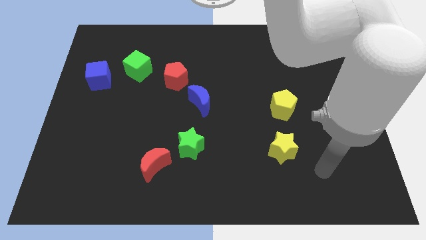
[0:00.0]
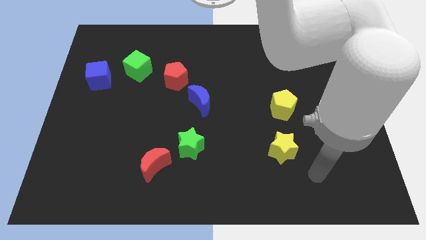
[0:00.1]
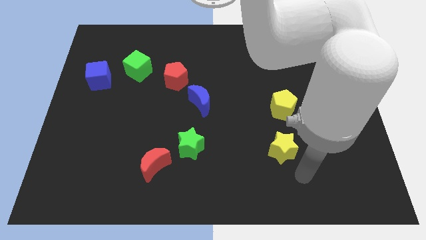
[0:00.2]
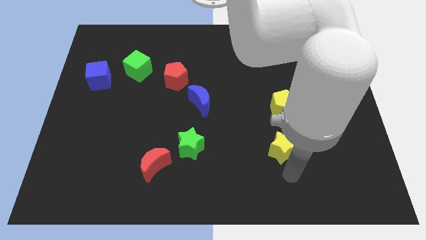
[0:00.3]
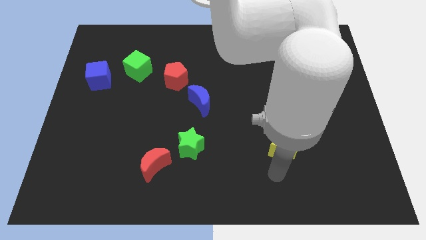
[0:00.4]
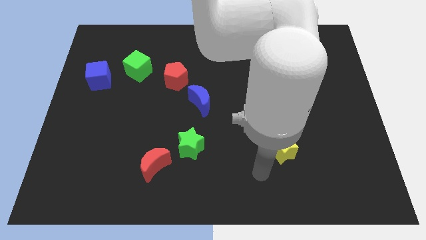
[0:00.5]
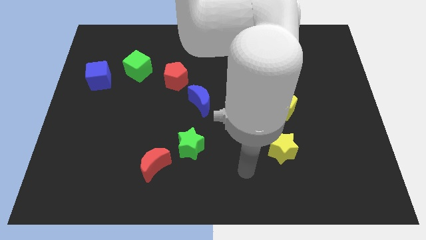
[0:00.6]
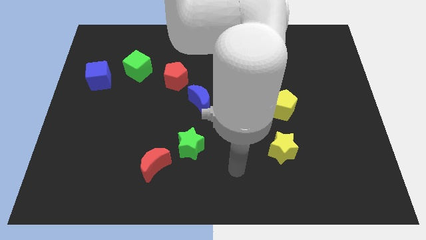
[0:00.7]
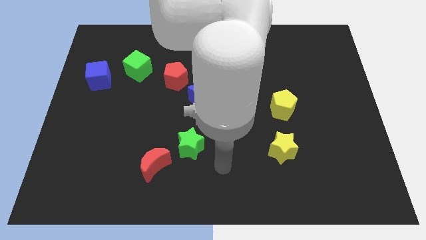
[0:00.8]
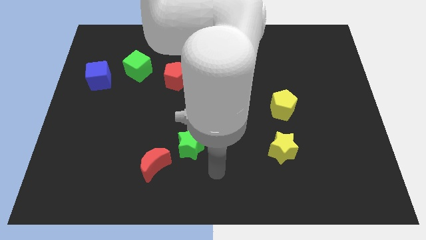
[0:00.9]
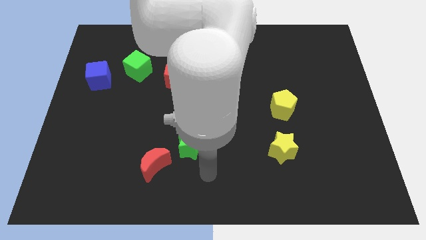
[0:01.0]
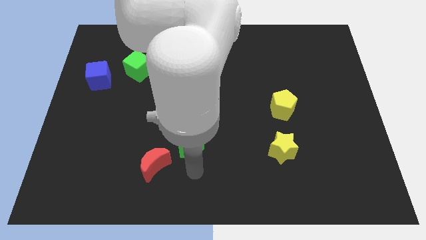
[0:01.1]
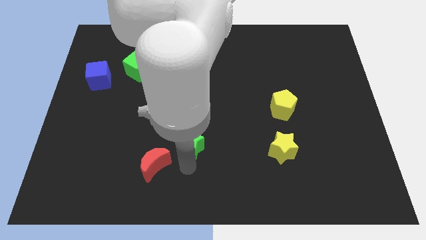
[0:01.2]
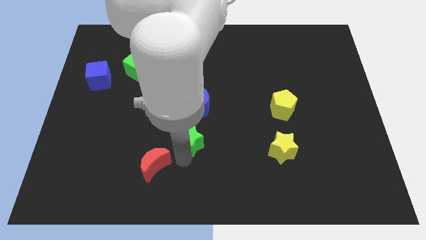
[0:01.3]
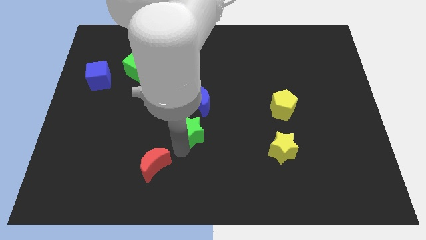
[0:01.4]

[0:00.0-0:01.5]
move the red moon away from the green star

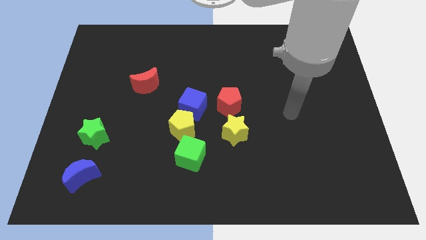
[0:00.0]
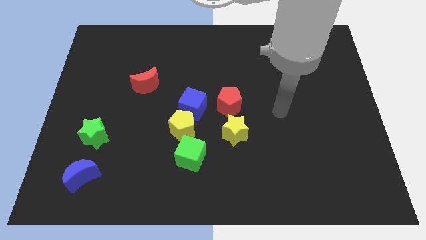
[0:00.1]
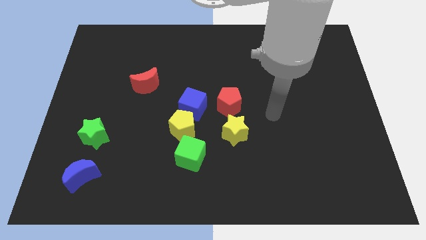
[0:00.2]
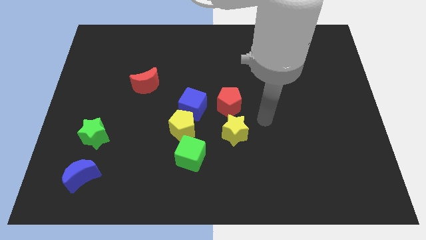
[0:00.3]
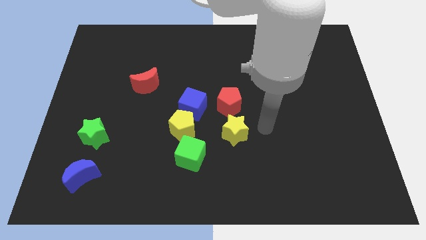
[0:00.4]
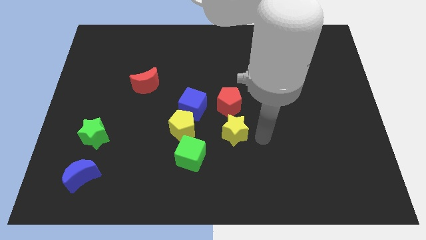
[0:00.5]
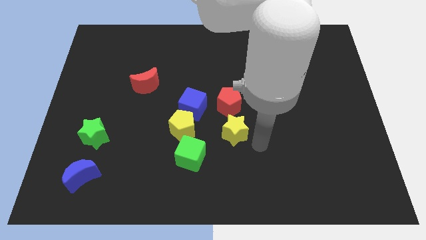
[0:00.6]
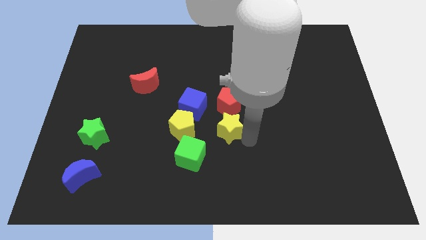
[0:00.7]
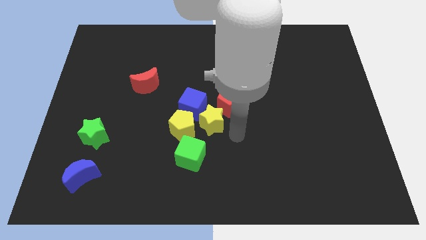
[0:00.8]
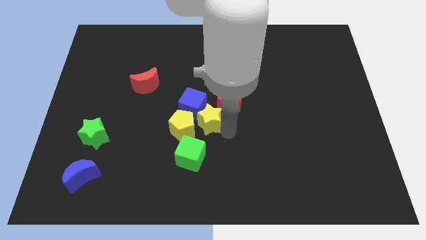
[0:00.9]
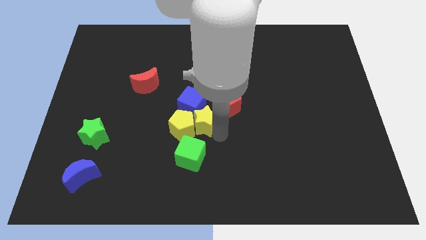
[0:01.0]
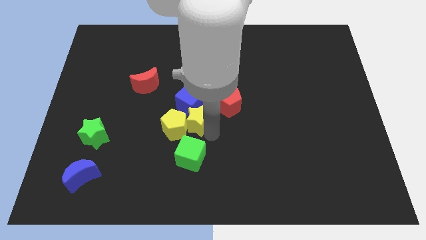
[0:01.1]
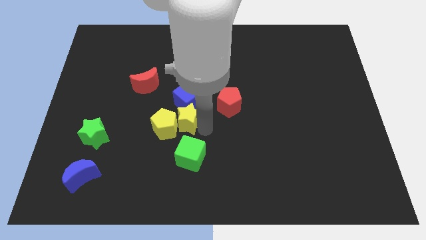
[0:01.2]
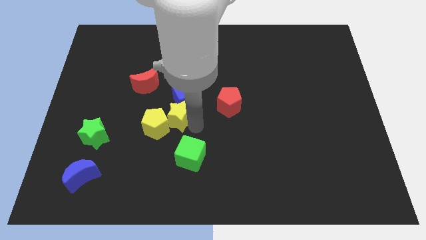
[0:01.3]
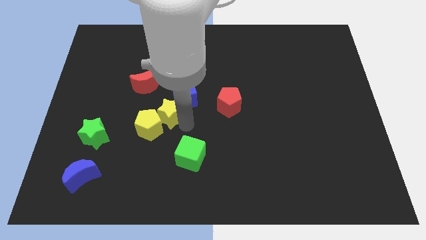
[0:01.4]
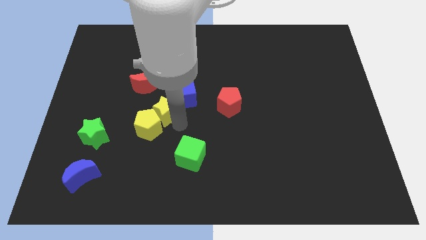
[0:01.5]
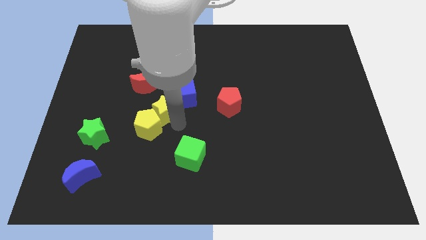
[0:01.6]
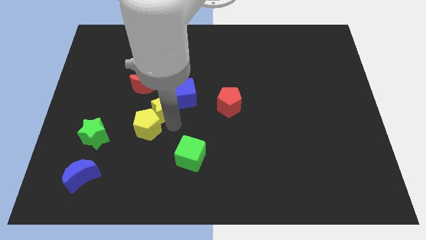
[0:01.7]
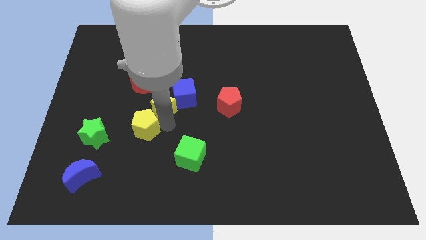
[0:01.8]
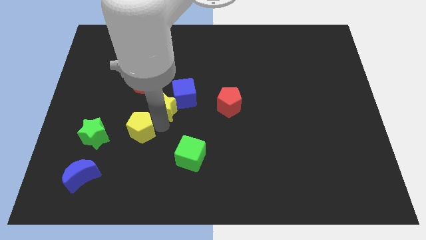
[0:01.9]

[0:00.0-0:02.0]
separate the yellow pentagon from the blue cube and green cube

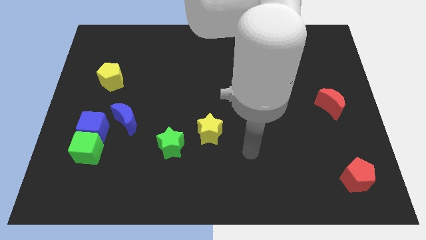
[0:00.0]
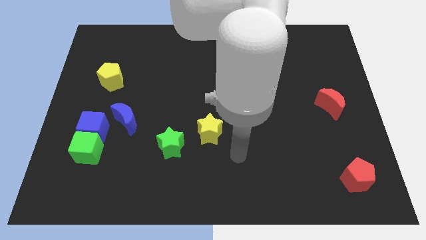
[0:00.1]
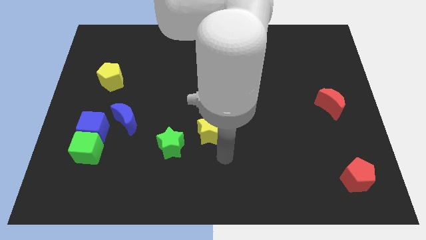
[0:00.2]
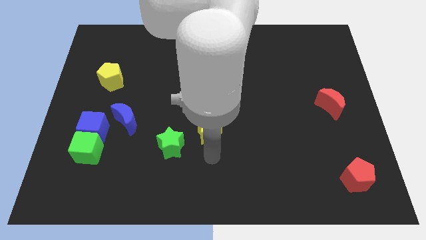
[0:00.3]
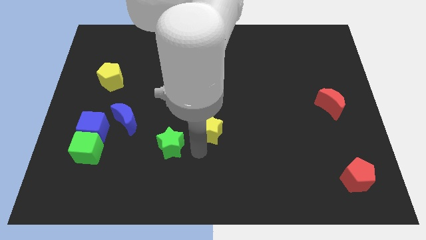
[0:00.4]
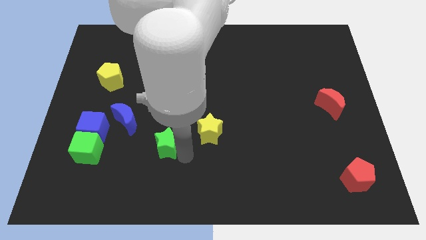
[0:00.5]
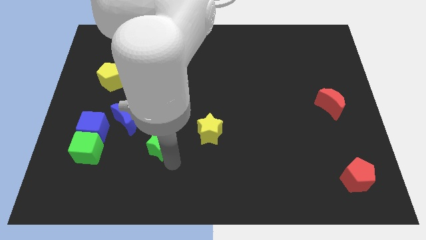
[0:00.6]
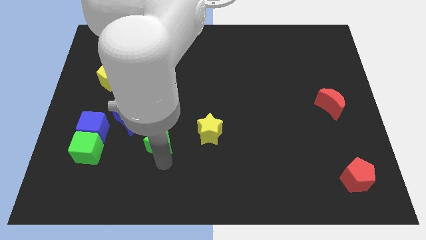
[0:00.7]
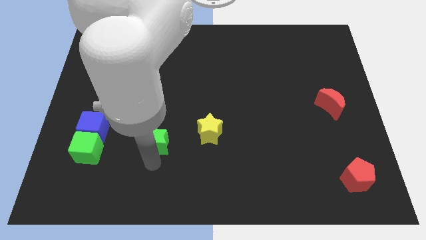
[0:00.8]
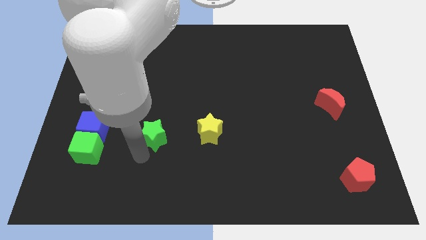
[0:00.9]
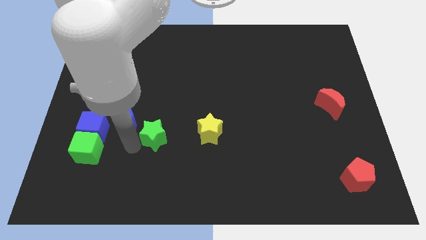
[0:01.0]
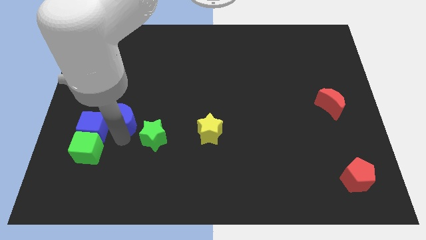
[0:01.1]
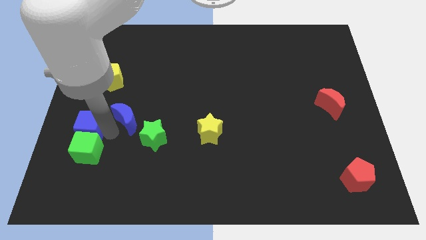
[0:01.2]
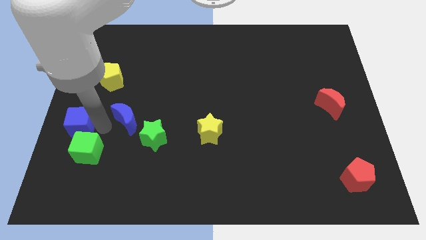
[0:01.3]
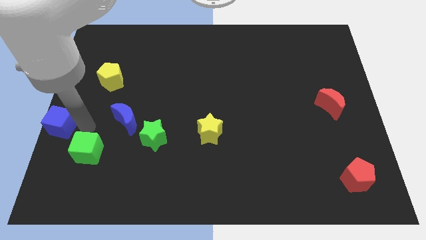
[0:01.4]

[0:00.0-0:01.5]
separate the green cube from the blue cube

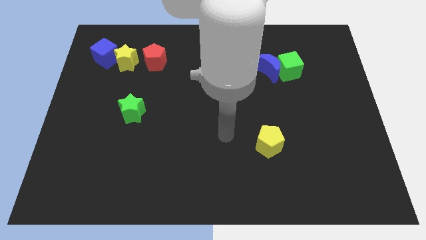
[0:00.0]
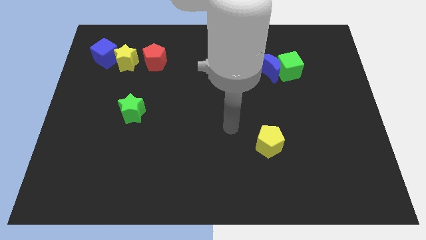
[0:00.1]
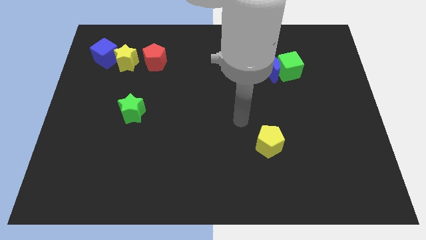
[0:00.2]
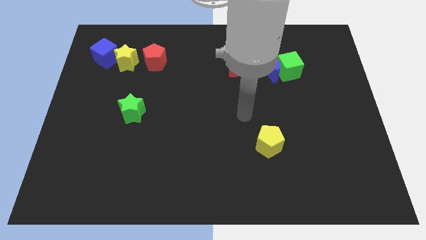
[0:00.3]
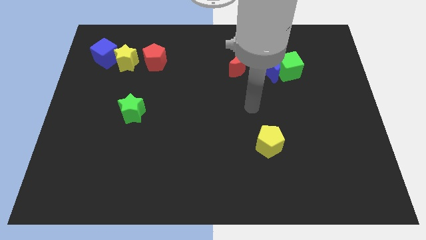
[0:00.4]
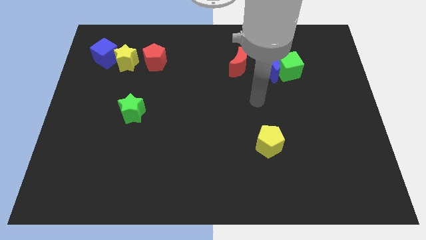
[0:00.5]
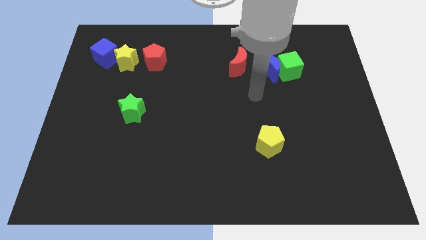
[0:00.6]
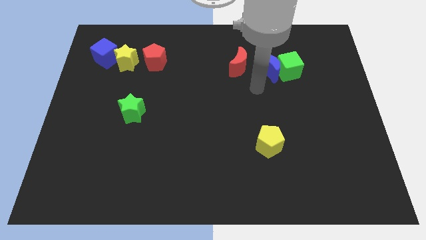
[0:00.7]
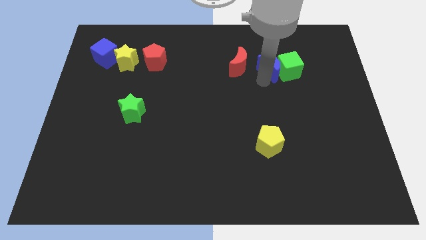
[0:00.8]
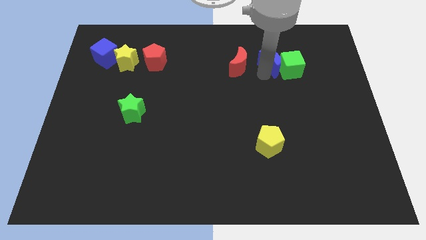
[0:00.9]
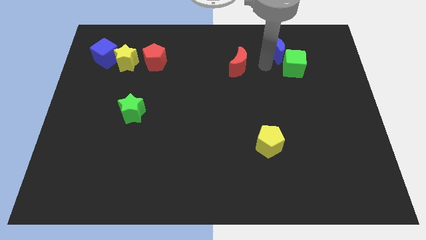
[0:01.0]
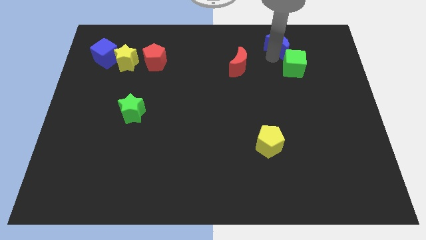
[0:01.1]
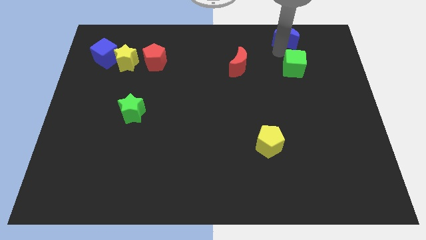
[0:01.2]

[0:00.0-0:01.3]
separate the green cube from the blue moon

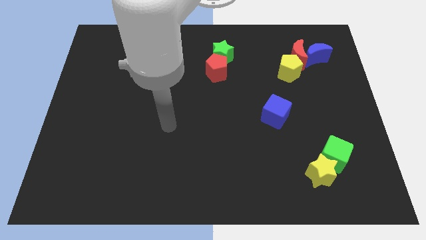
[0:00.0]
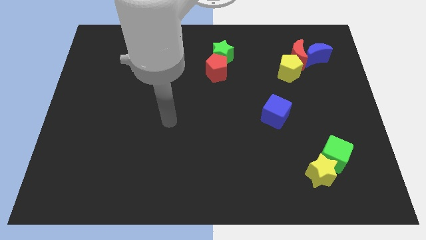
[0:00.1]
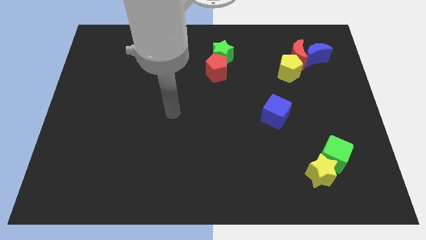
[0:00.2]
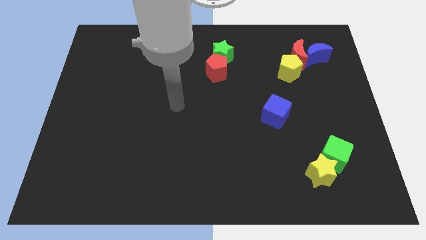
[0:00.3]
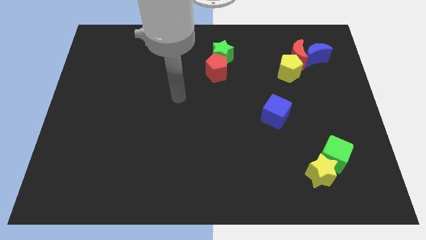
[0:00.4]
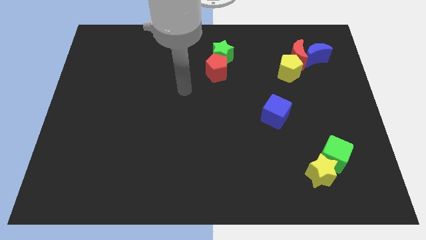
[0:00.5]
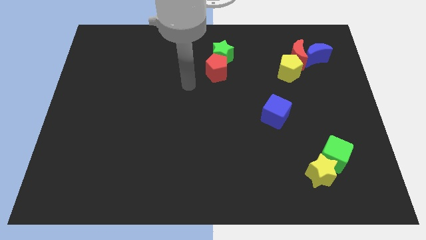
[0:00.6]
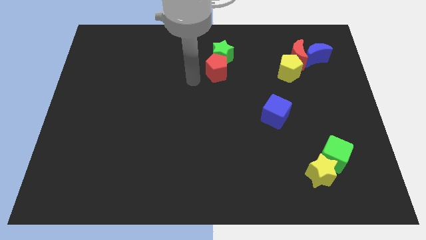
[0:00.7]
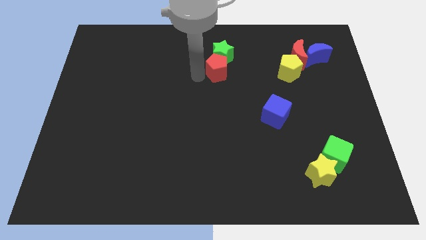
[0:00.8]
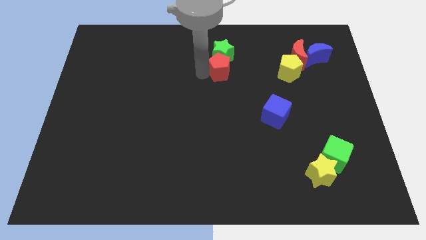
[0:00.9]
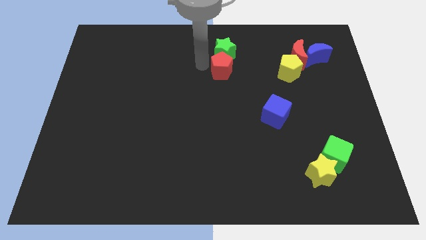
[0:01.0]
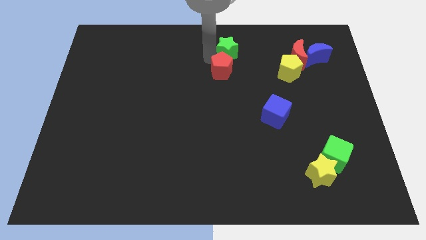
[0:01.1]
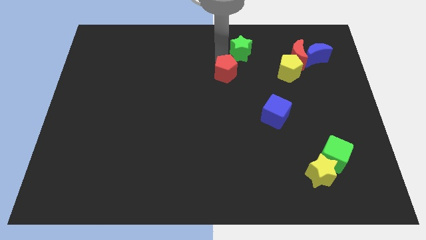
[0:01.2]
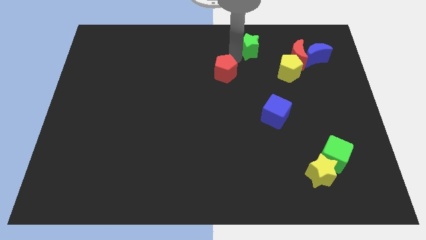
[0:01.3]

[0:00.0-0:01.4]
separate the red pentagon from the green star

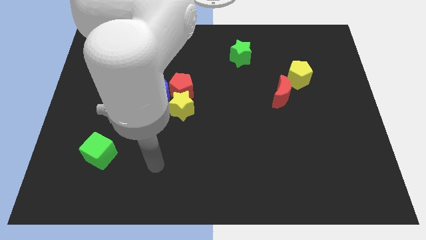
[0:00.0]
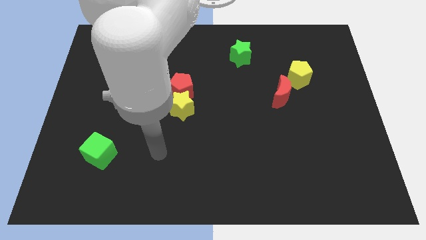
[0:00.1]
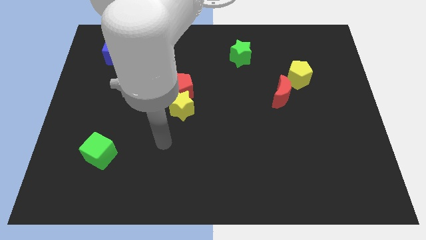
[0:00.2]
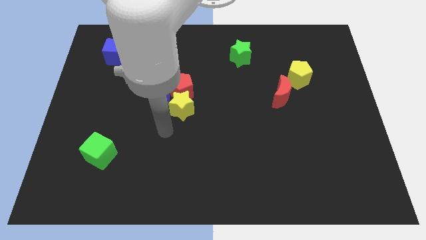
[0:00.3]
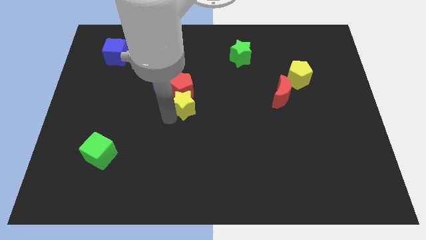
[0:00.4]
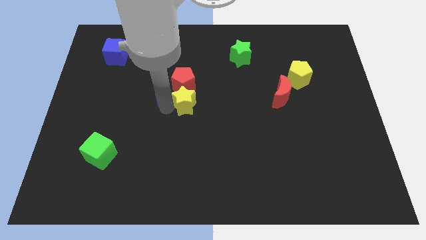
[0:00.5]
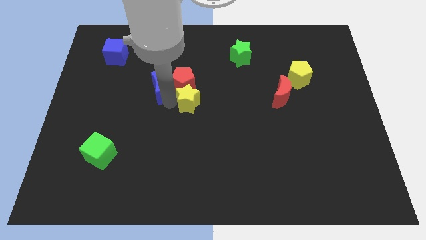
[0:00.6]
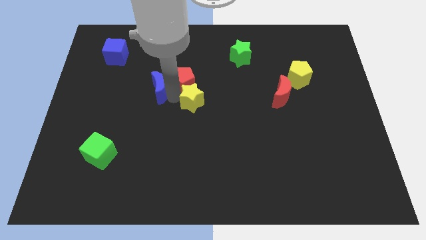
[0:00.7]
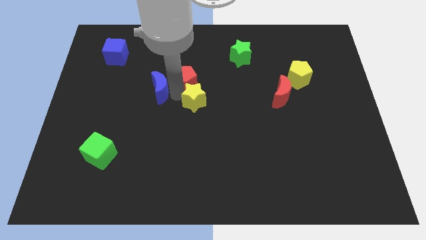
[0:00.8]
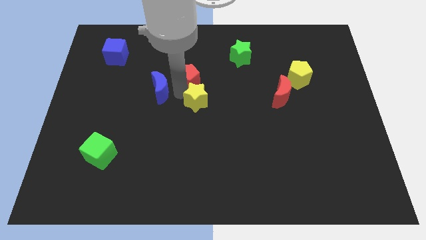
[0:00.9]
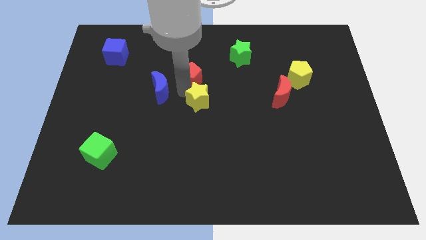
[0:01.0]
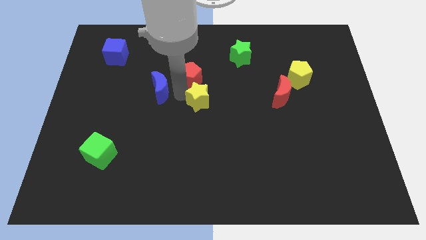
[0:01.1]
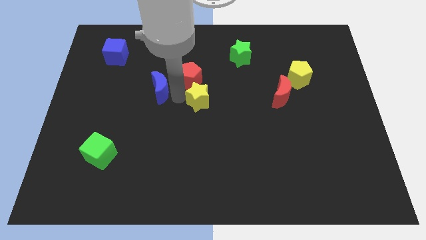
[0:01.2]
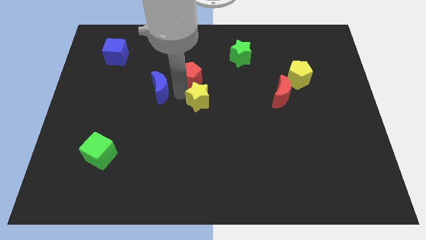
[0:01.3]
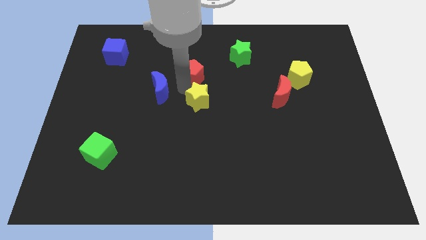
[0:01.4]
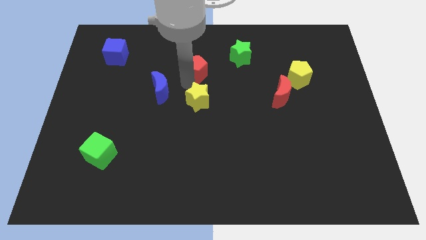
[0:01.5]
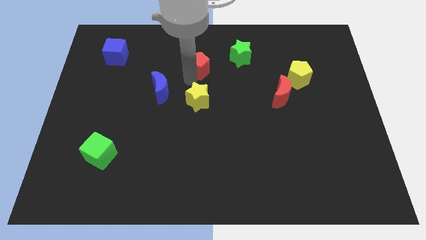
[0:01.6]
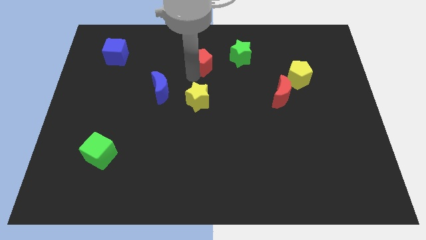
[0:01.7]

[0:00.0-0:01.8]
pull the red pentagon apart from the blue moon and yellow star
